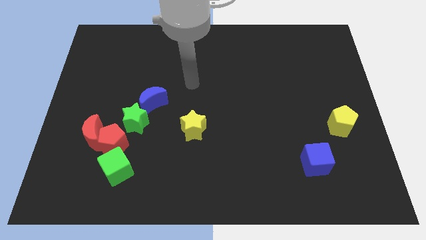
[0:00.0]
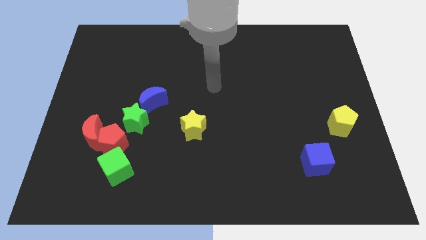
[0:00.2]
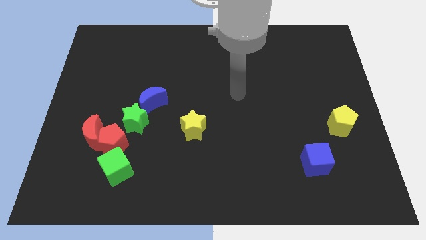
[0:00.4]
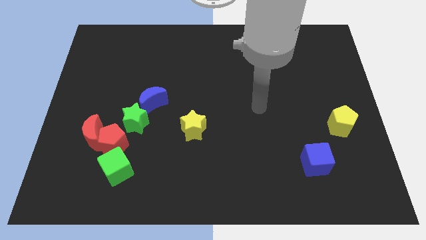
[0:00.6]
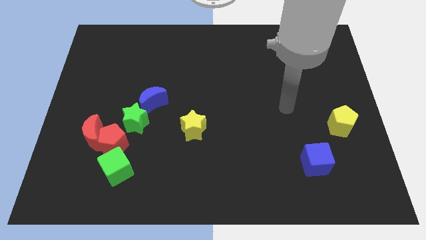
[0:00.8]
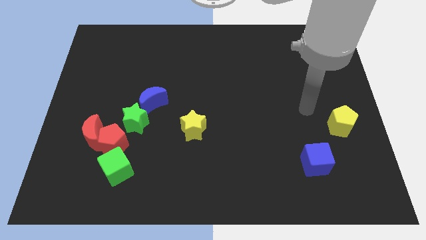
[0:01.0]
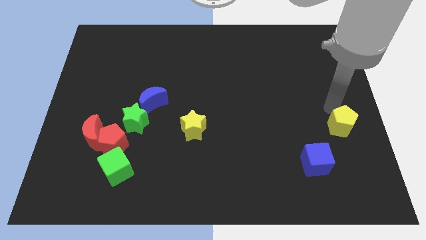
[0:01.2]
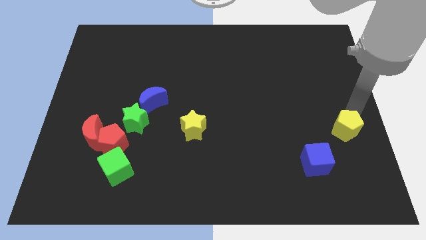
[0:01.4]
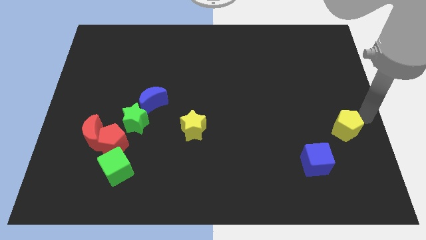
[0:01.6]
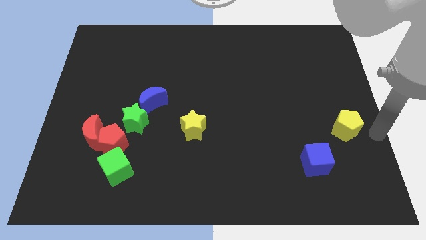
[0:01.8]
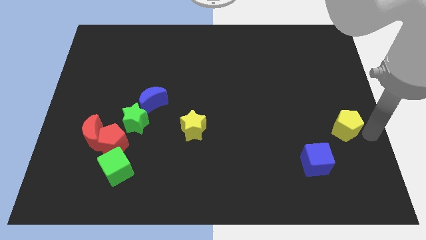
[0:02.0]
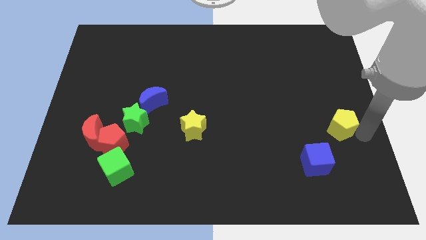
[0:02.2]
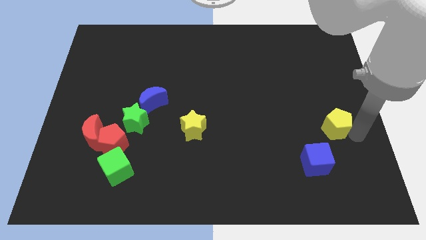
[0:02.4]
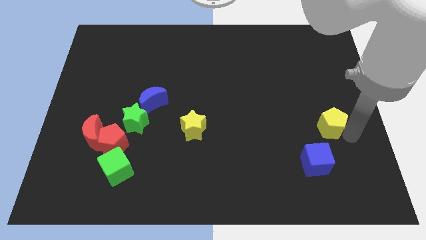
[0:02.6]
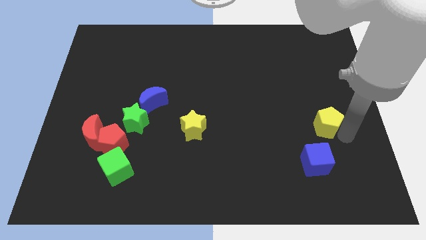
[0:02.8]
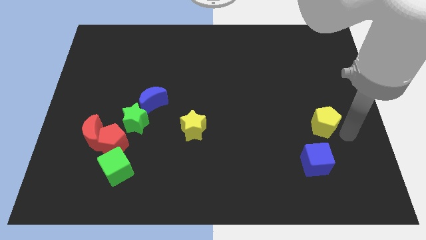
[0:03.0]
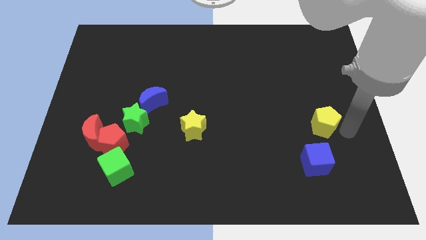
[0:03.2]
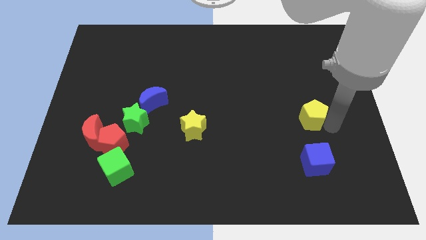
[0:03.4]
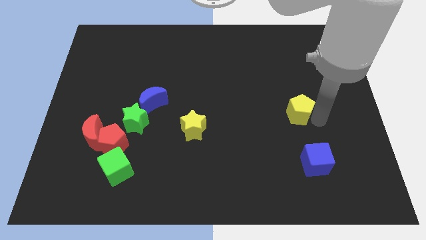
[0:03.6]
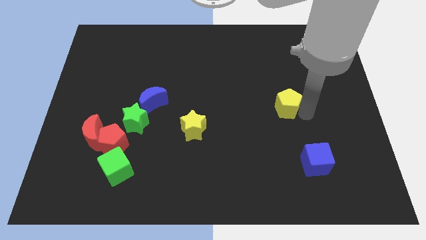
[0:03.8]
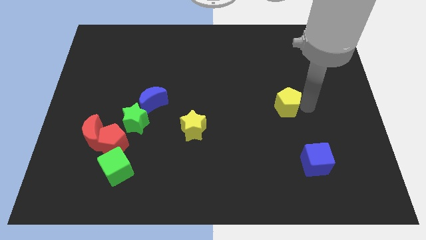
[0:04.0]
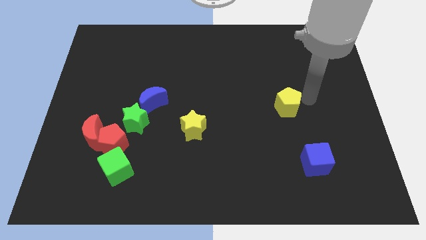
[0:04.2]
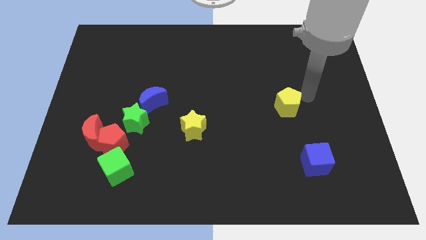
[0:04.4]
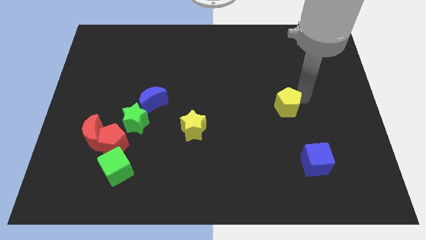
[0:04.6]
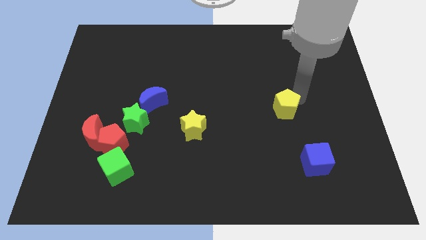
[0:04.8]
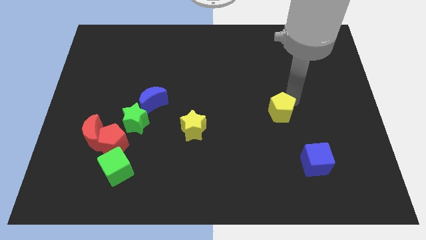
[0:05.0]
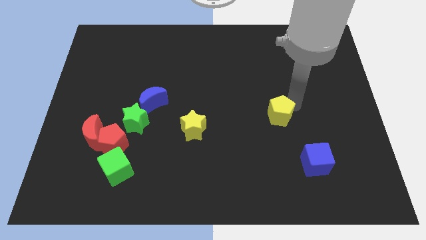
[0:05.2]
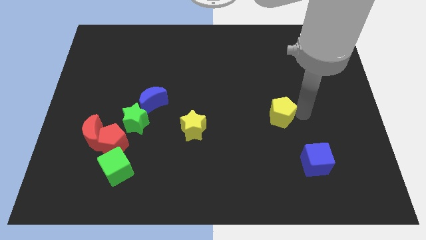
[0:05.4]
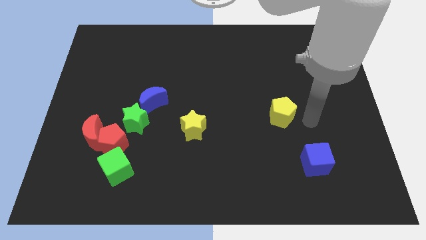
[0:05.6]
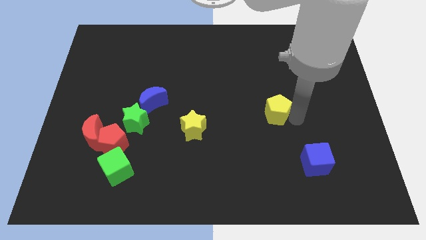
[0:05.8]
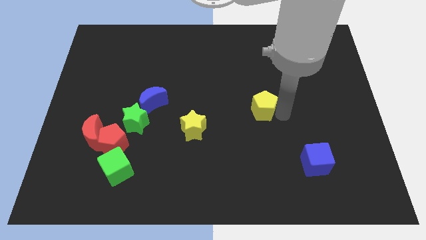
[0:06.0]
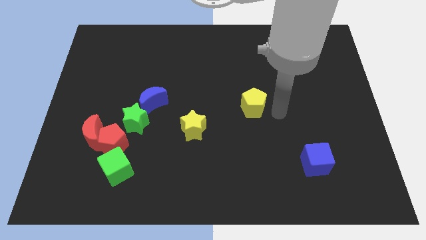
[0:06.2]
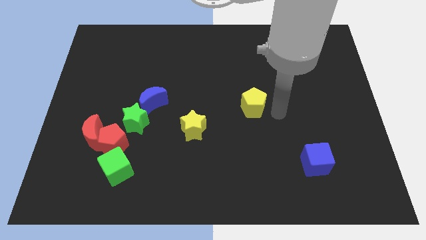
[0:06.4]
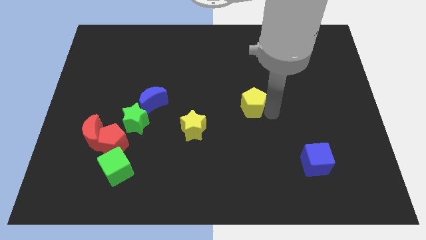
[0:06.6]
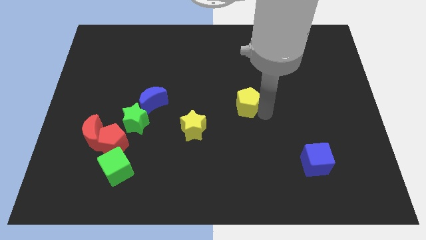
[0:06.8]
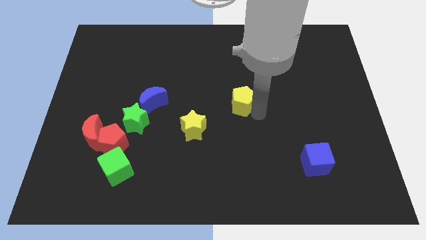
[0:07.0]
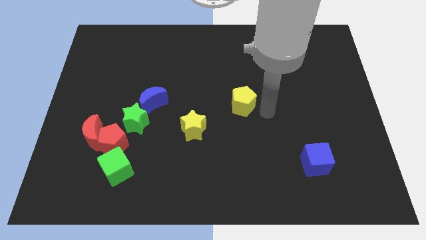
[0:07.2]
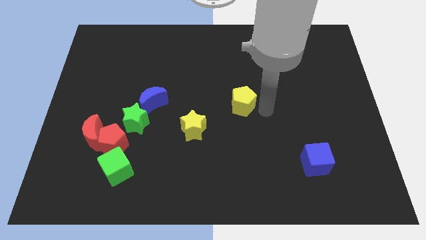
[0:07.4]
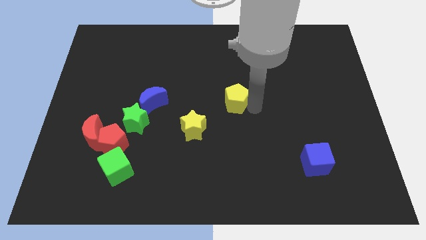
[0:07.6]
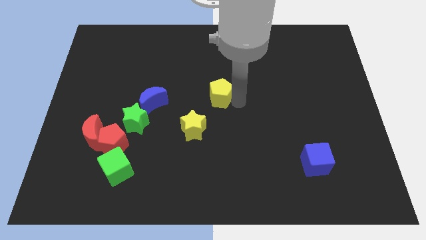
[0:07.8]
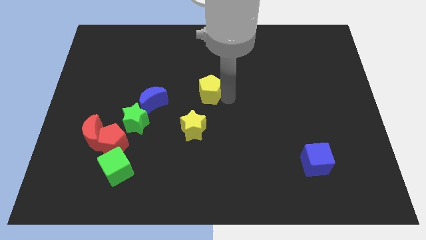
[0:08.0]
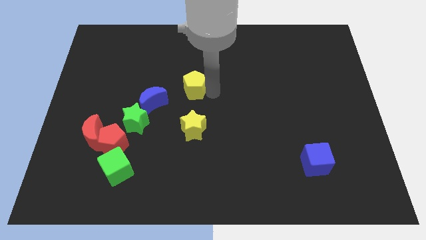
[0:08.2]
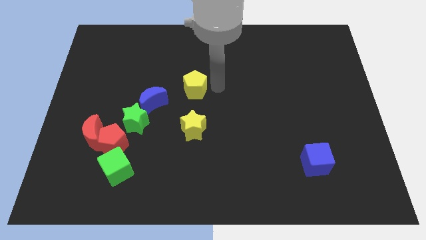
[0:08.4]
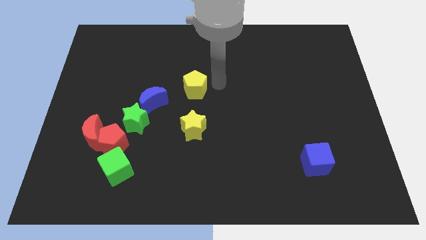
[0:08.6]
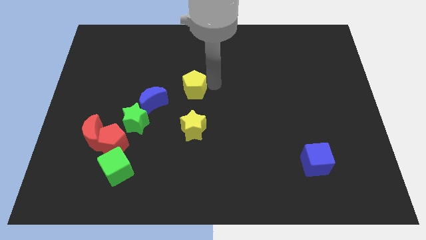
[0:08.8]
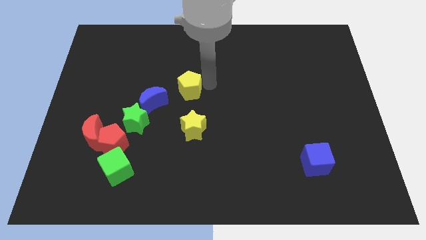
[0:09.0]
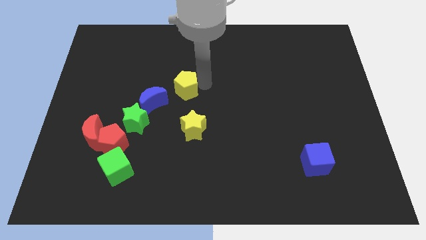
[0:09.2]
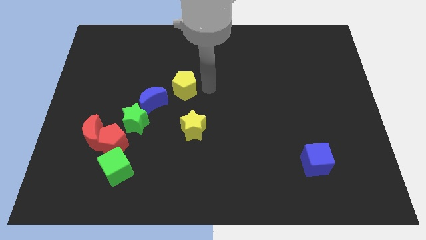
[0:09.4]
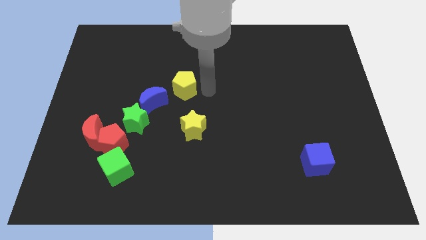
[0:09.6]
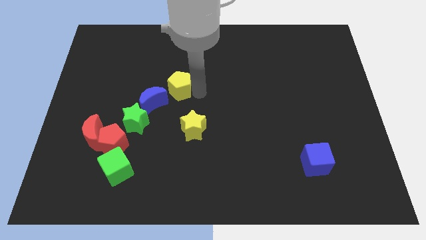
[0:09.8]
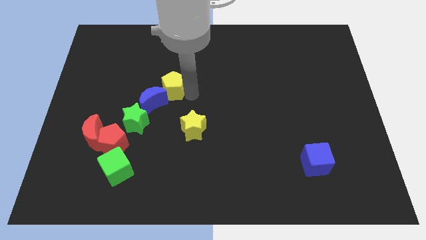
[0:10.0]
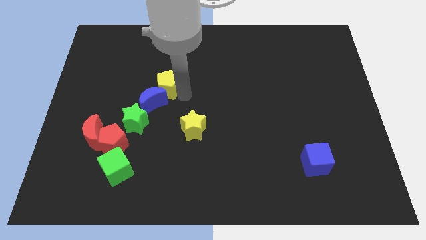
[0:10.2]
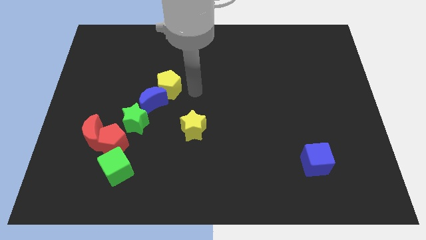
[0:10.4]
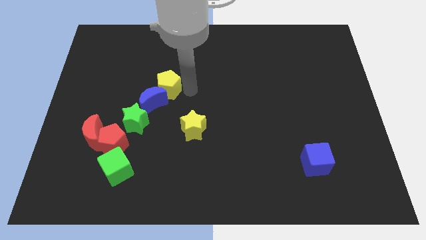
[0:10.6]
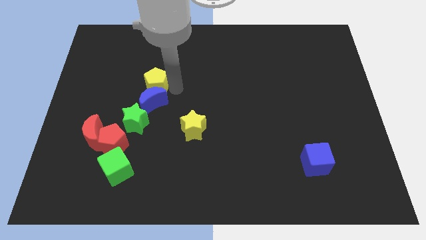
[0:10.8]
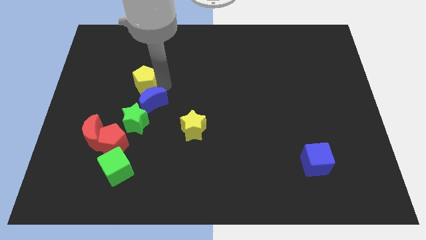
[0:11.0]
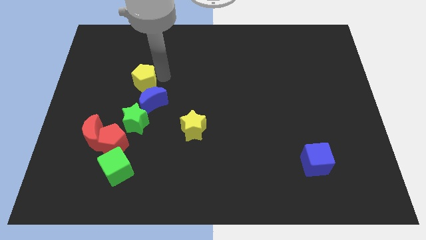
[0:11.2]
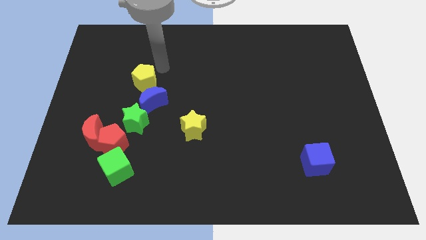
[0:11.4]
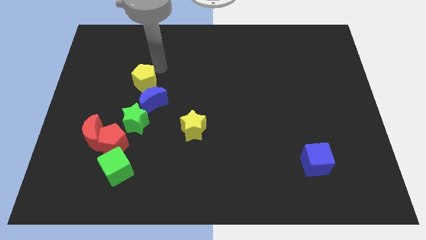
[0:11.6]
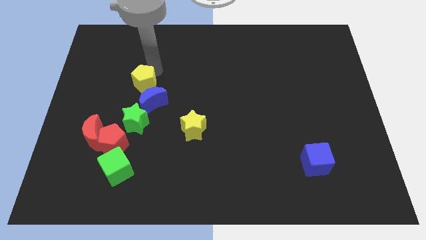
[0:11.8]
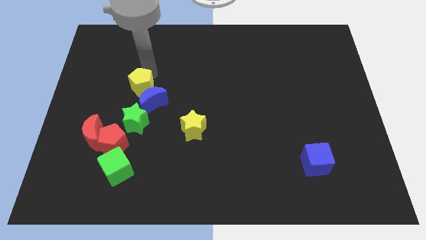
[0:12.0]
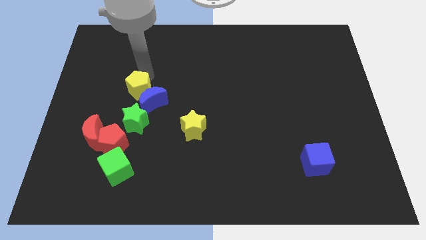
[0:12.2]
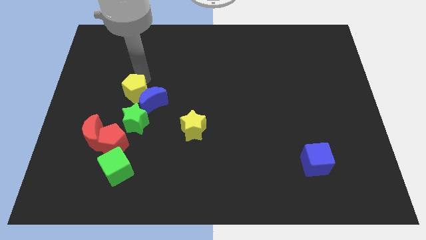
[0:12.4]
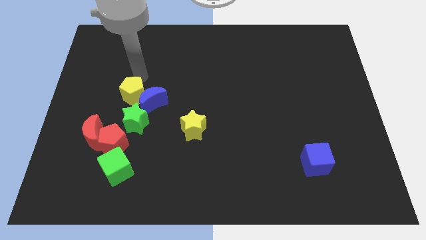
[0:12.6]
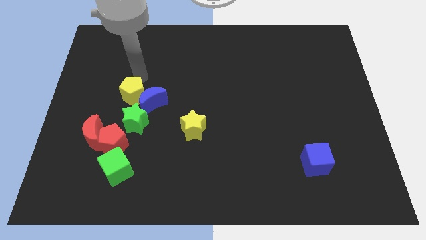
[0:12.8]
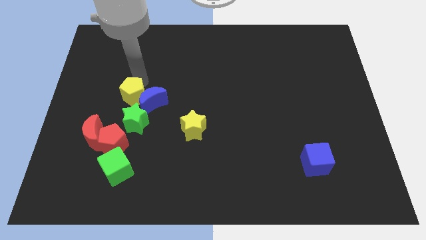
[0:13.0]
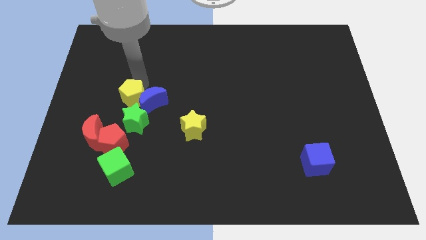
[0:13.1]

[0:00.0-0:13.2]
slide the yellow pentagon diagonally down and to the left of the blue moon
